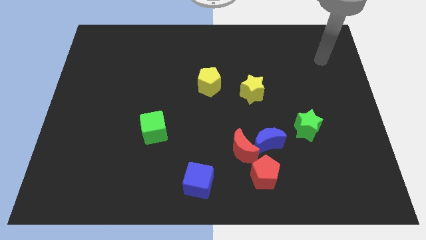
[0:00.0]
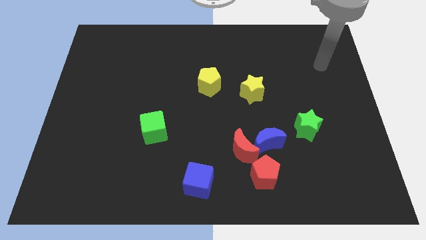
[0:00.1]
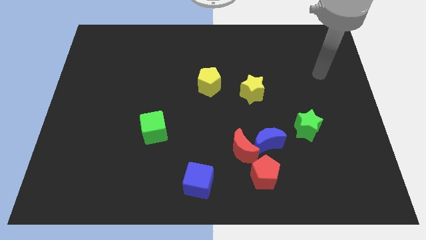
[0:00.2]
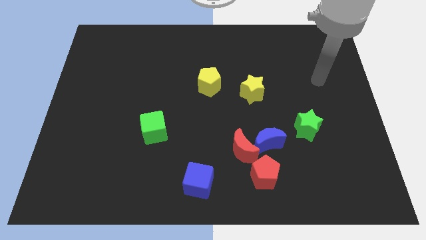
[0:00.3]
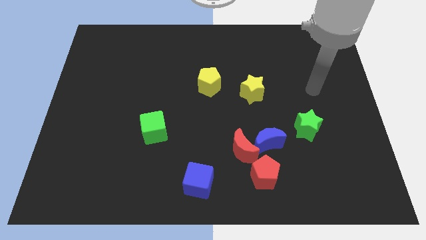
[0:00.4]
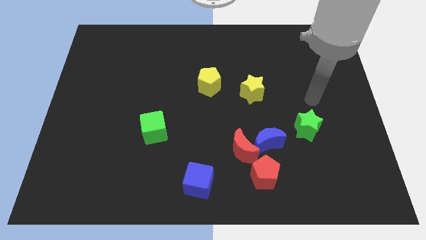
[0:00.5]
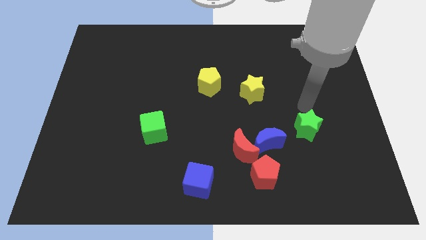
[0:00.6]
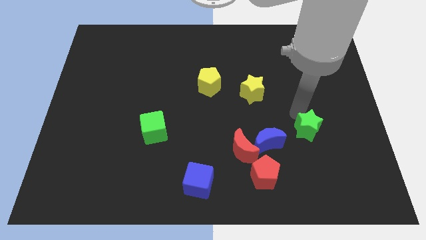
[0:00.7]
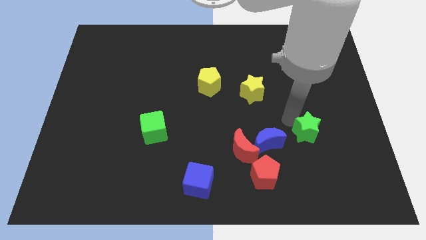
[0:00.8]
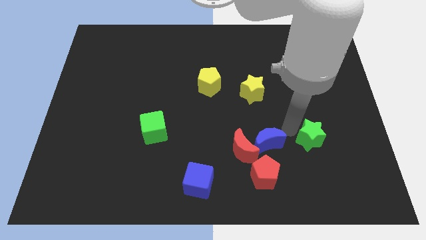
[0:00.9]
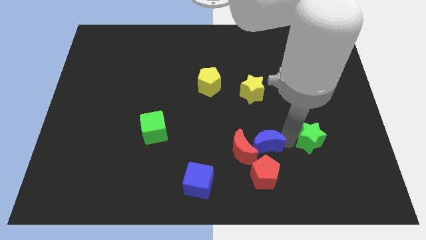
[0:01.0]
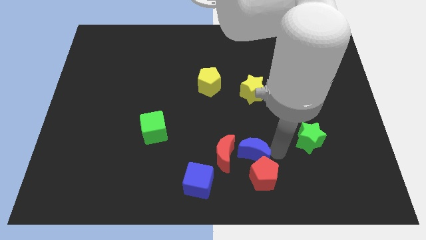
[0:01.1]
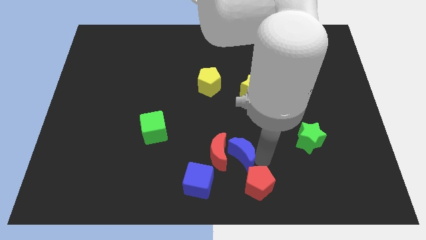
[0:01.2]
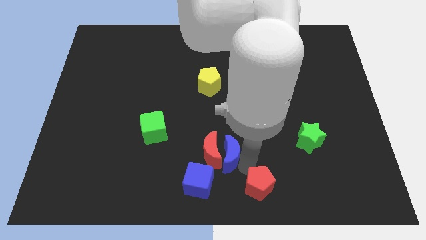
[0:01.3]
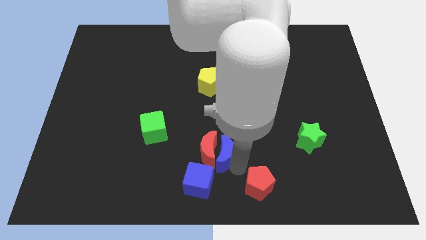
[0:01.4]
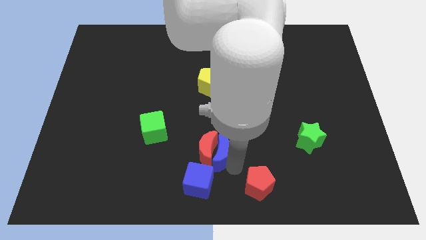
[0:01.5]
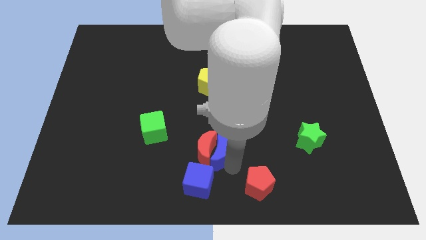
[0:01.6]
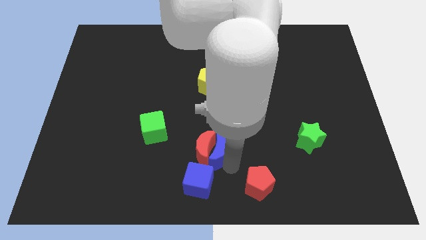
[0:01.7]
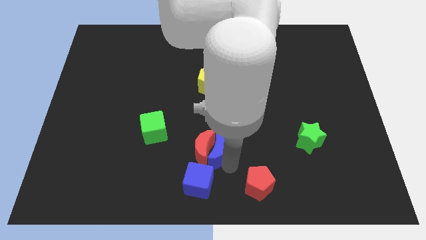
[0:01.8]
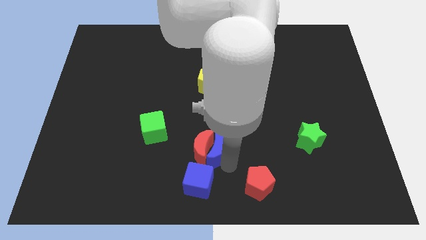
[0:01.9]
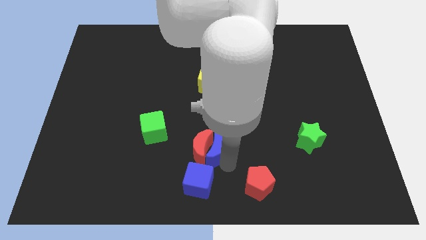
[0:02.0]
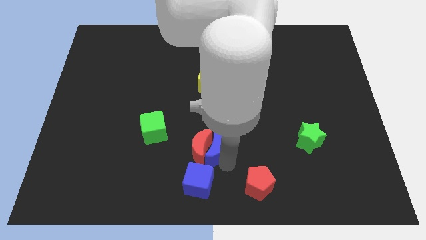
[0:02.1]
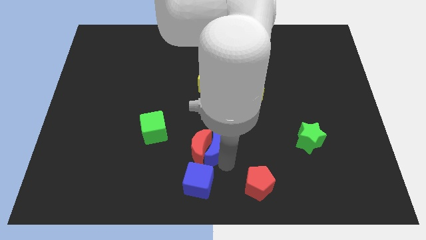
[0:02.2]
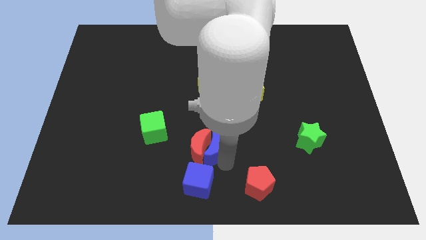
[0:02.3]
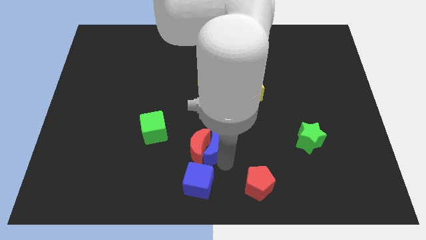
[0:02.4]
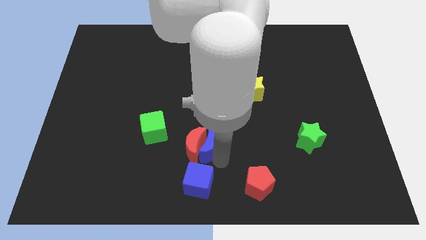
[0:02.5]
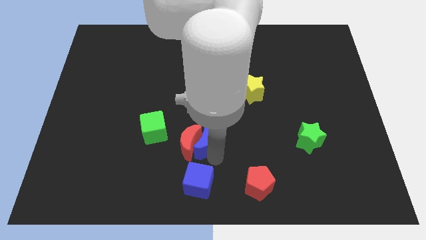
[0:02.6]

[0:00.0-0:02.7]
move the red moon away from the blue moon and red pentagon

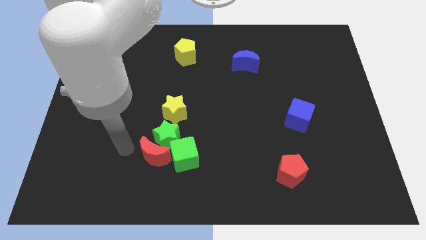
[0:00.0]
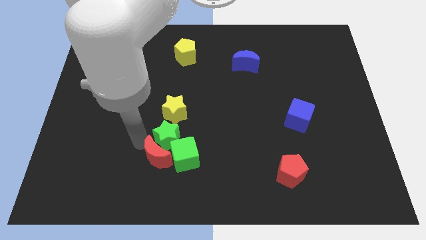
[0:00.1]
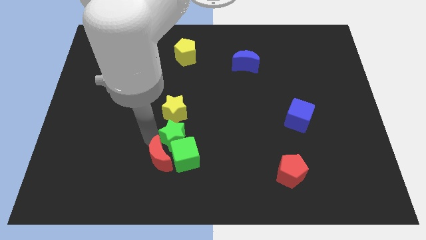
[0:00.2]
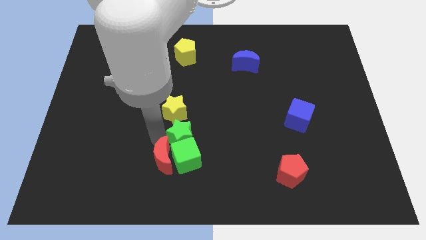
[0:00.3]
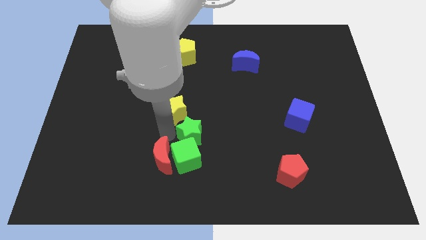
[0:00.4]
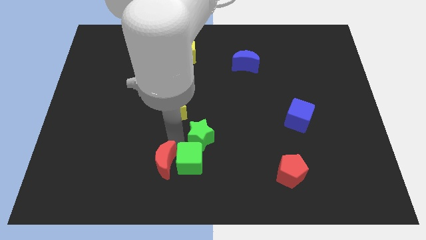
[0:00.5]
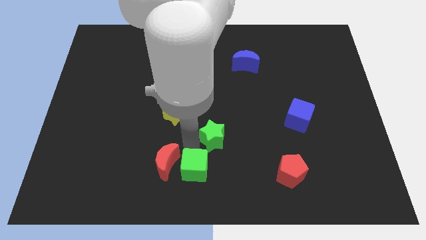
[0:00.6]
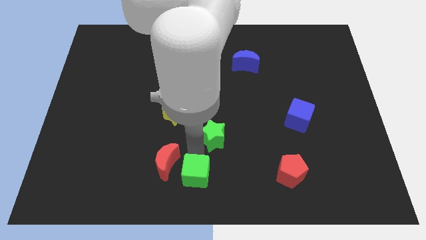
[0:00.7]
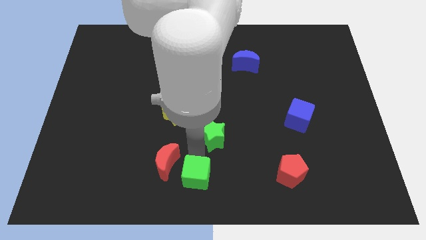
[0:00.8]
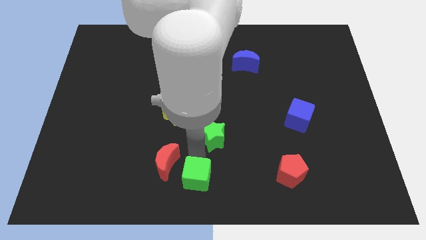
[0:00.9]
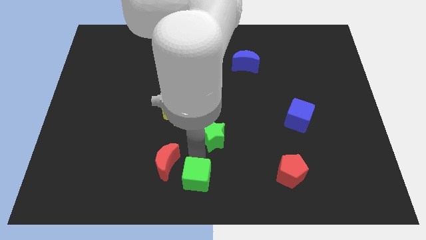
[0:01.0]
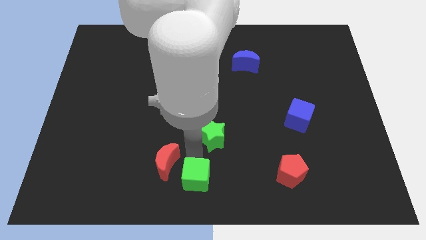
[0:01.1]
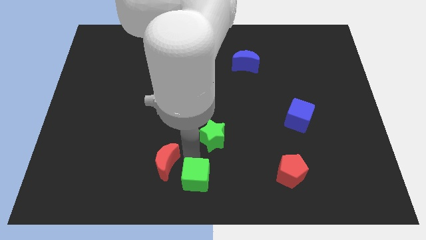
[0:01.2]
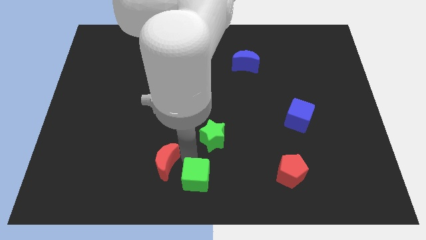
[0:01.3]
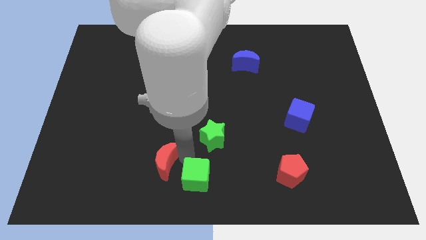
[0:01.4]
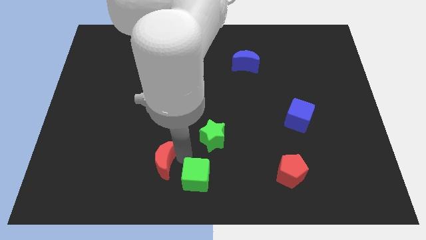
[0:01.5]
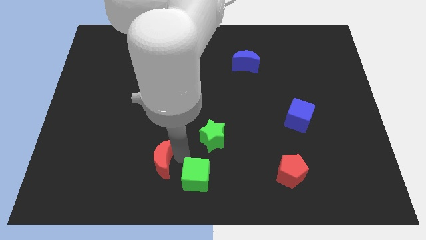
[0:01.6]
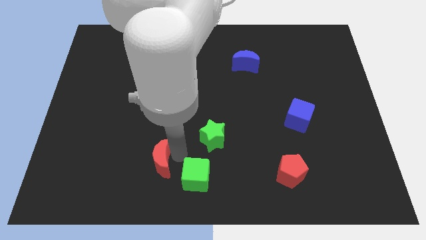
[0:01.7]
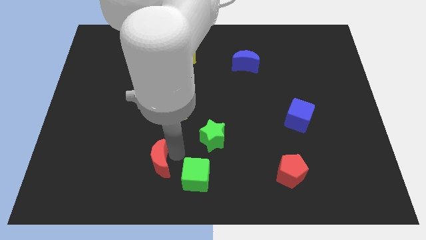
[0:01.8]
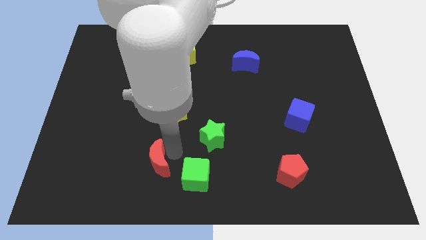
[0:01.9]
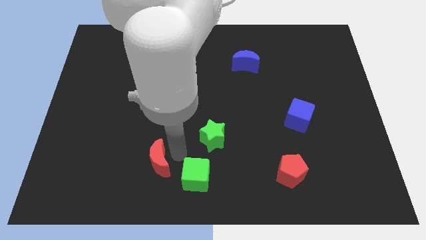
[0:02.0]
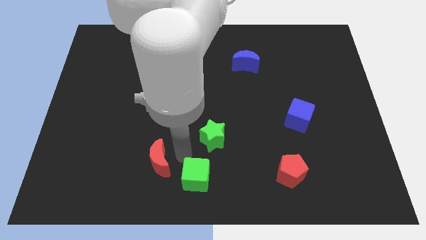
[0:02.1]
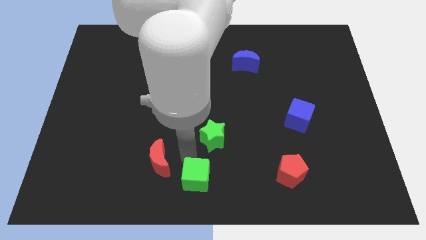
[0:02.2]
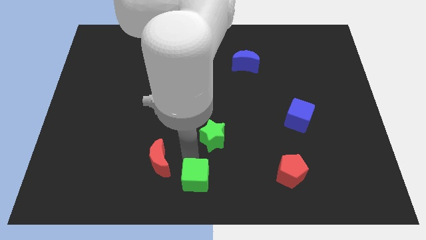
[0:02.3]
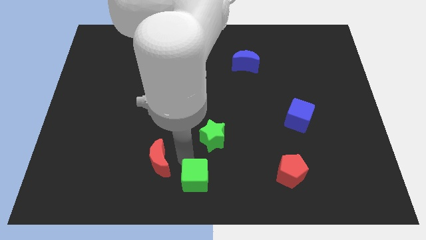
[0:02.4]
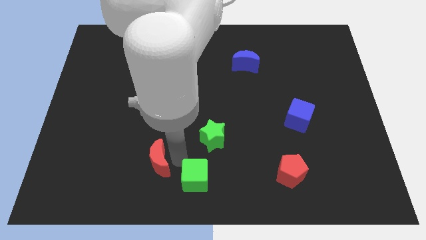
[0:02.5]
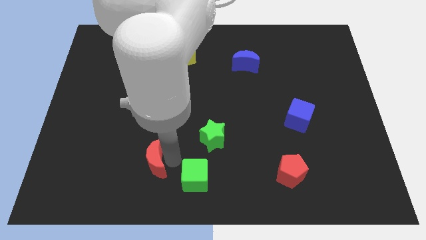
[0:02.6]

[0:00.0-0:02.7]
move the red moon away from the green star and green cube

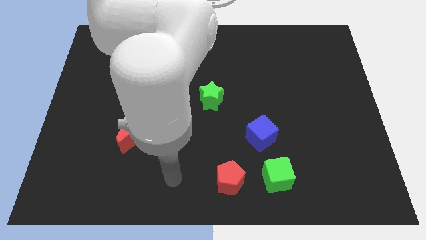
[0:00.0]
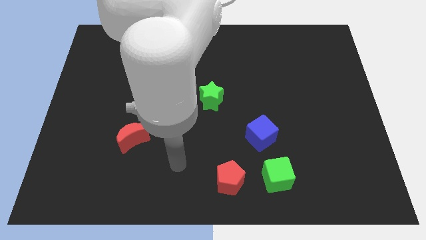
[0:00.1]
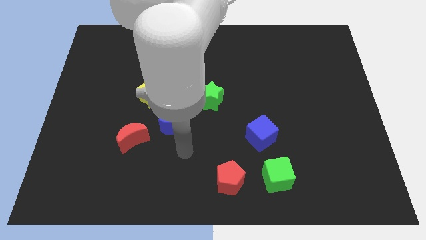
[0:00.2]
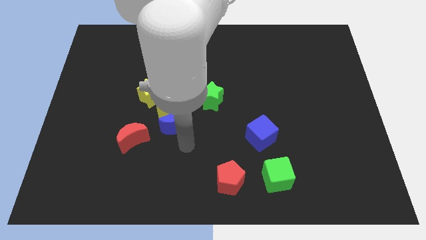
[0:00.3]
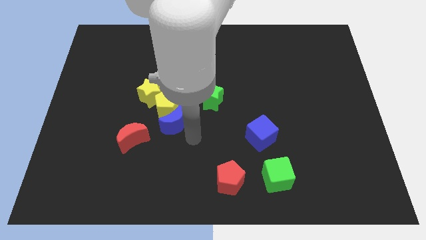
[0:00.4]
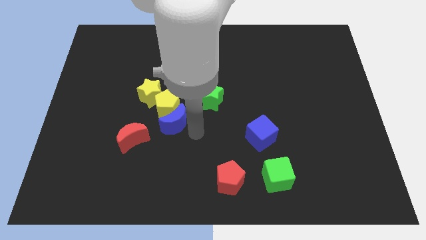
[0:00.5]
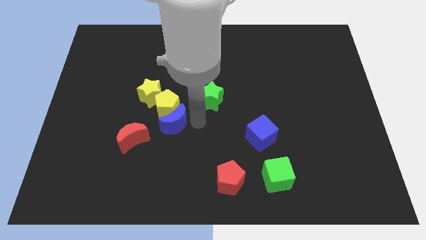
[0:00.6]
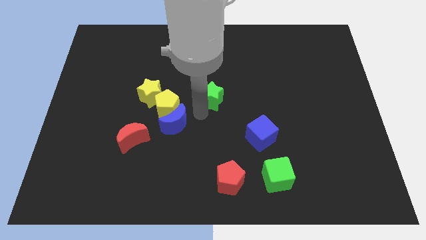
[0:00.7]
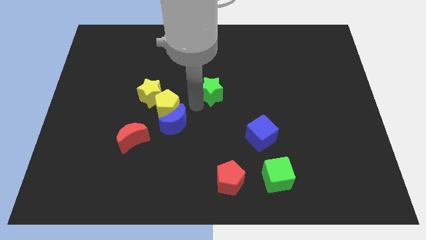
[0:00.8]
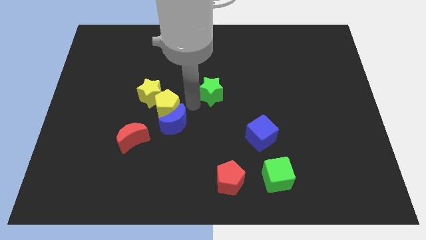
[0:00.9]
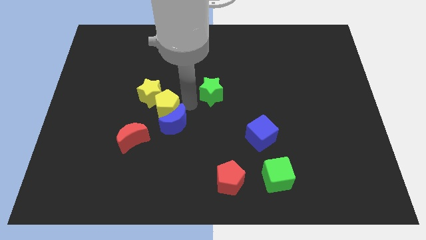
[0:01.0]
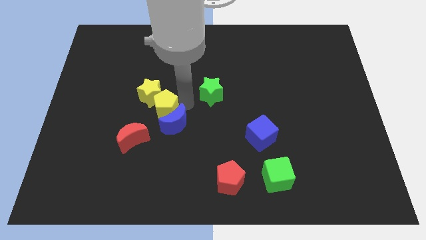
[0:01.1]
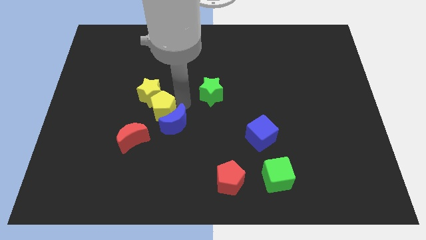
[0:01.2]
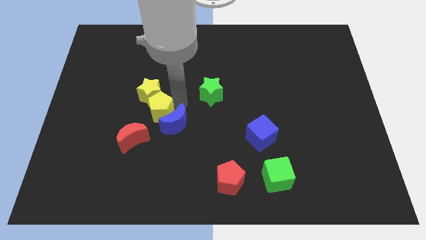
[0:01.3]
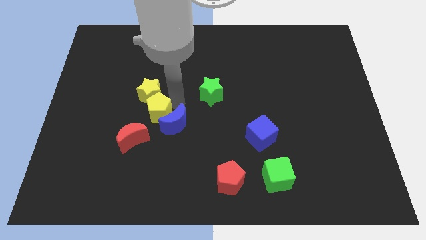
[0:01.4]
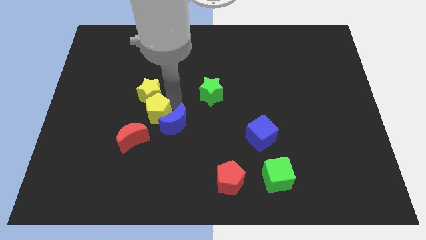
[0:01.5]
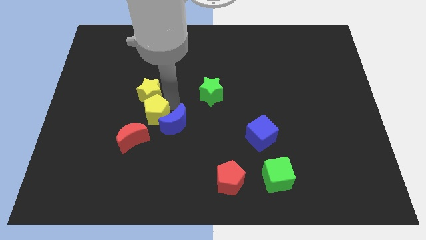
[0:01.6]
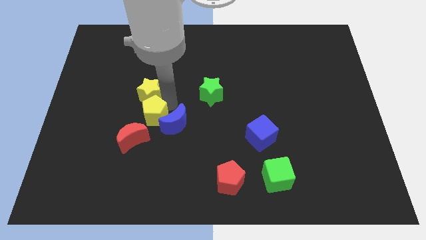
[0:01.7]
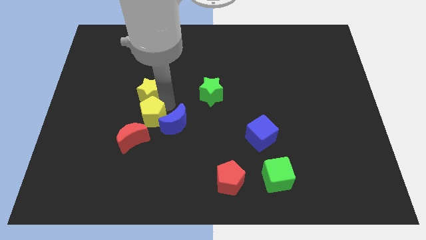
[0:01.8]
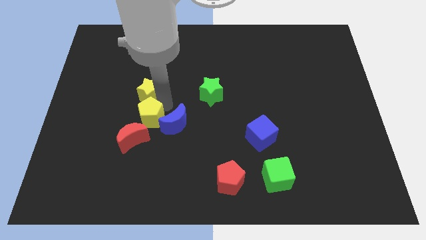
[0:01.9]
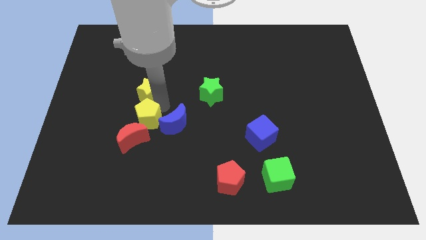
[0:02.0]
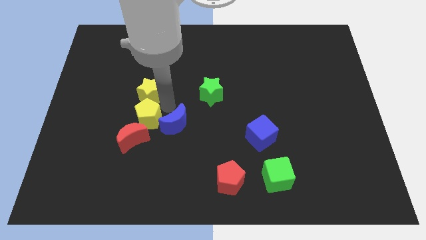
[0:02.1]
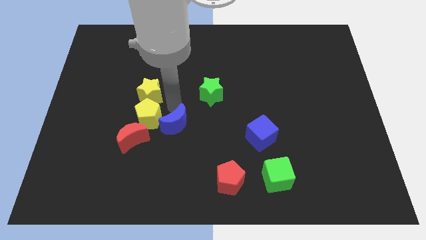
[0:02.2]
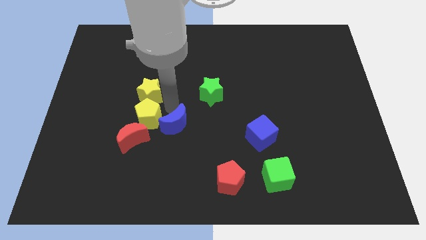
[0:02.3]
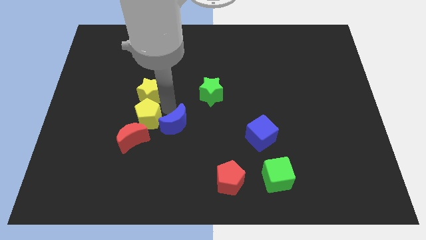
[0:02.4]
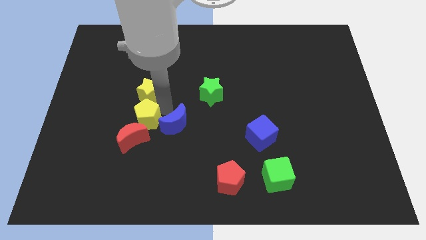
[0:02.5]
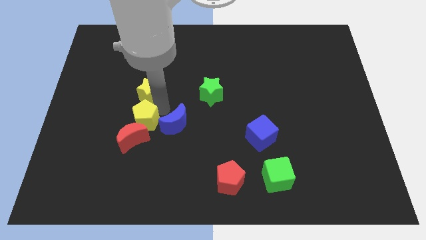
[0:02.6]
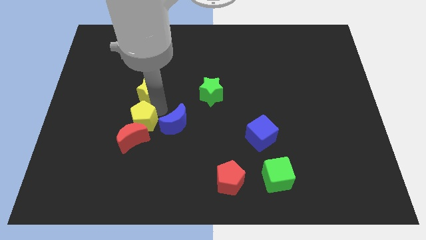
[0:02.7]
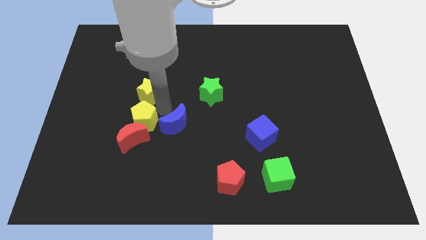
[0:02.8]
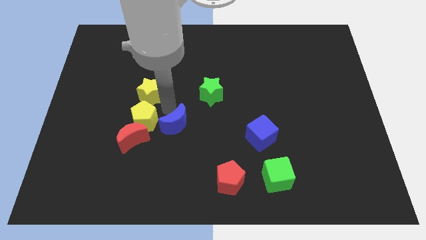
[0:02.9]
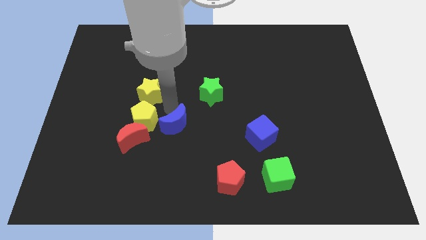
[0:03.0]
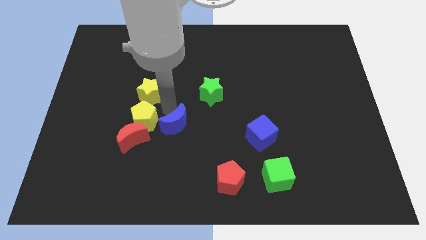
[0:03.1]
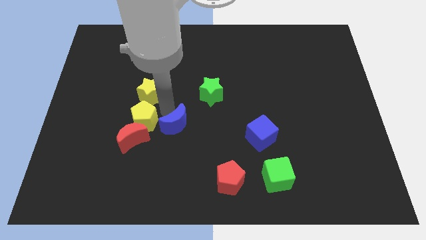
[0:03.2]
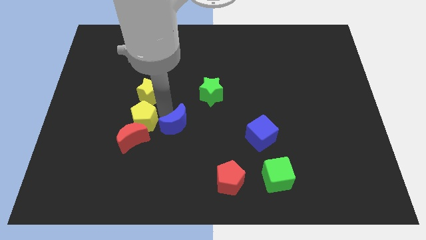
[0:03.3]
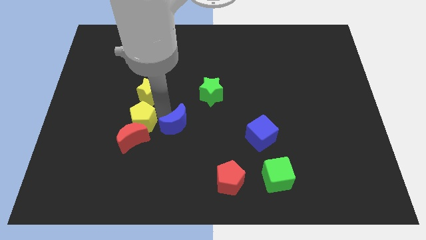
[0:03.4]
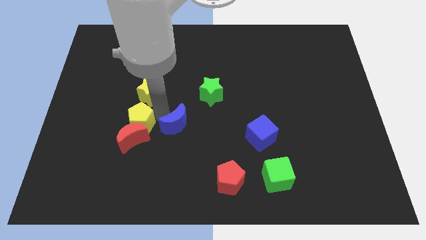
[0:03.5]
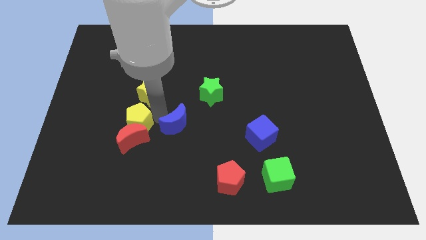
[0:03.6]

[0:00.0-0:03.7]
pull the yellow pentagon apart from the clump

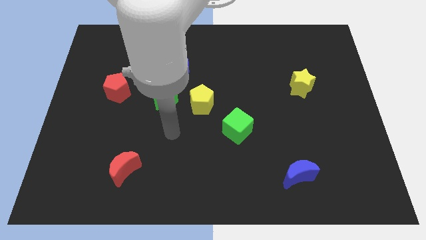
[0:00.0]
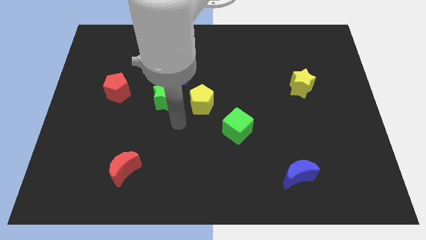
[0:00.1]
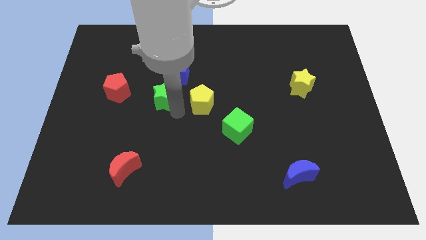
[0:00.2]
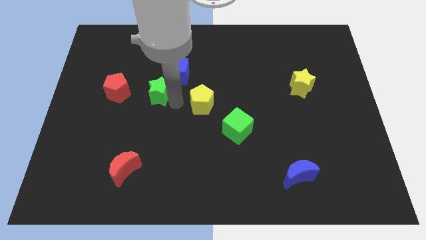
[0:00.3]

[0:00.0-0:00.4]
pull the yellow pentagon apart from the green star

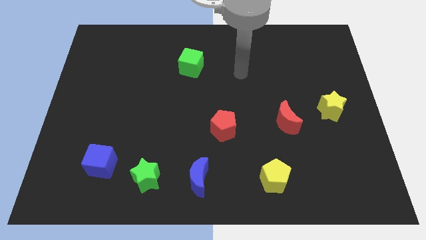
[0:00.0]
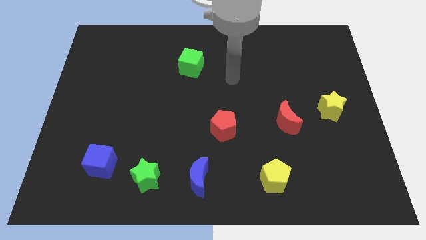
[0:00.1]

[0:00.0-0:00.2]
pull the blue moon apart from the green star
